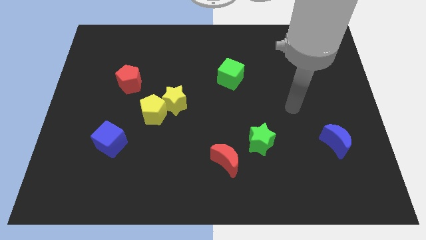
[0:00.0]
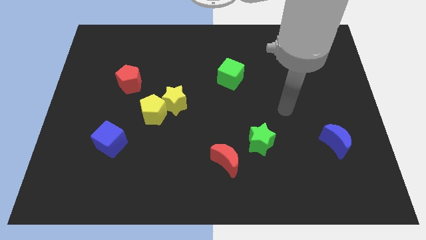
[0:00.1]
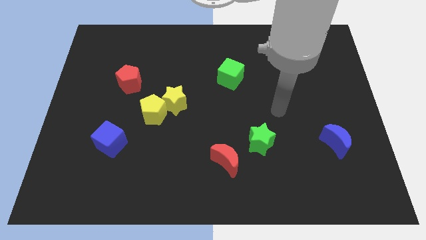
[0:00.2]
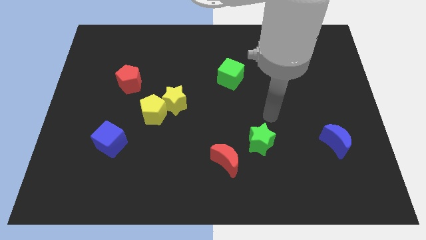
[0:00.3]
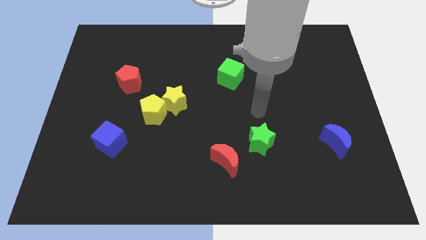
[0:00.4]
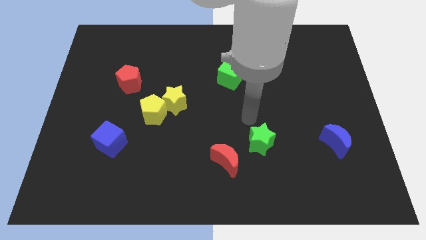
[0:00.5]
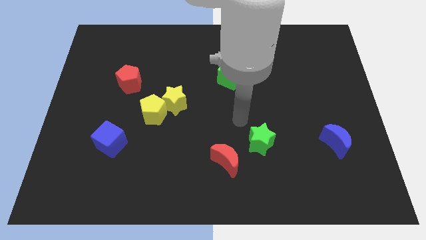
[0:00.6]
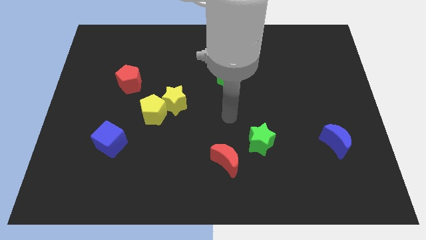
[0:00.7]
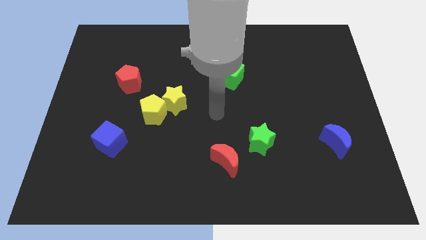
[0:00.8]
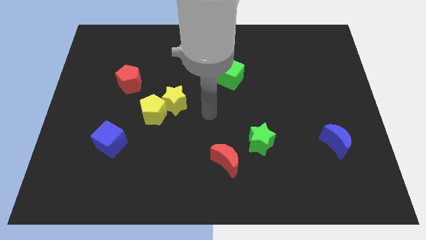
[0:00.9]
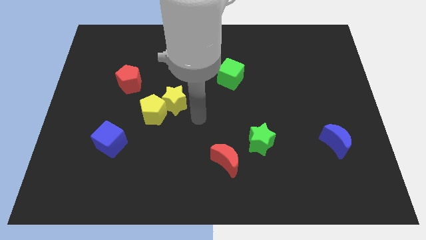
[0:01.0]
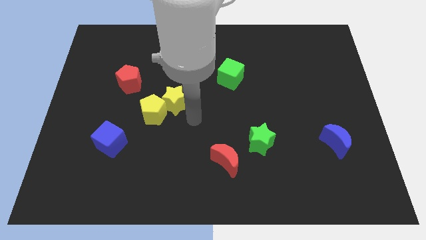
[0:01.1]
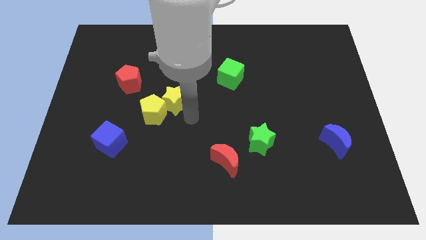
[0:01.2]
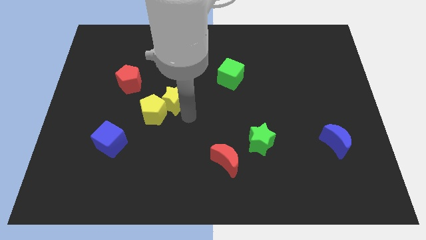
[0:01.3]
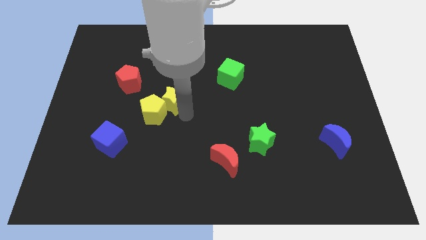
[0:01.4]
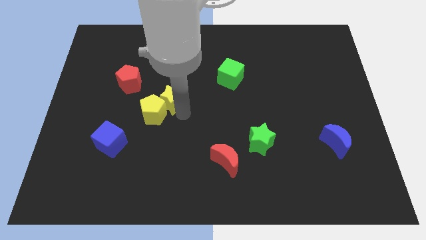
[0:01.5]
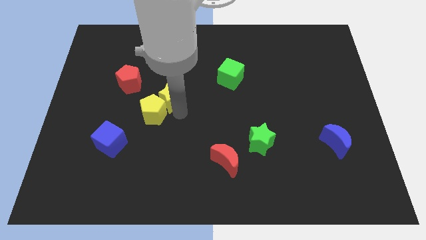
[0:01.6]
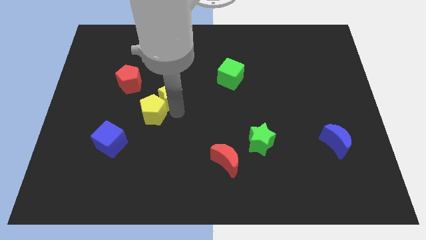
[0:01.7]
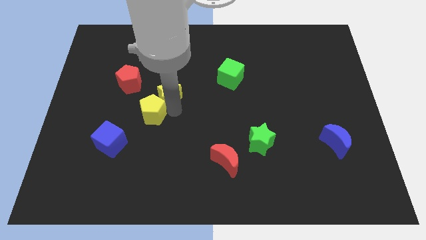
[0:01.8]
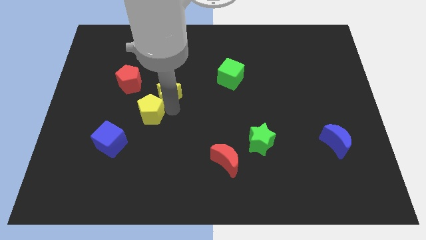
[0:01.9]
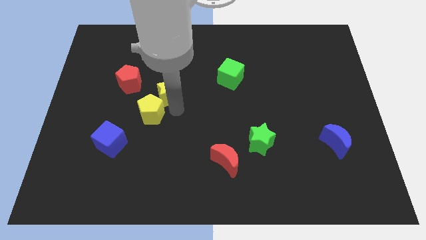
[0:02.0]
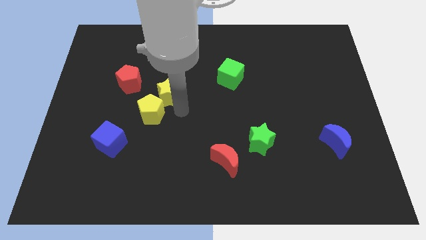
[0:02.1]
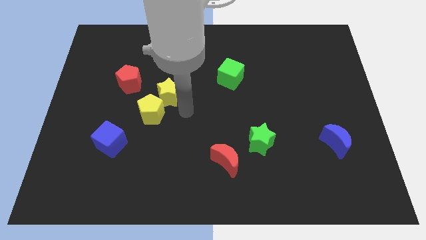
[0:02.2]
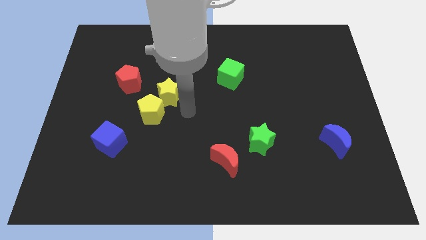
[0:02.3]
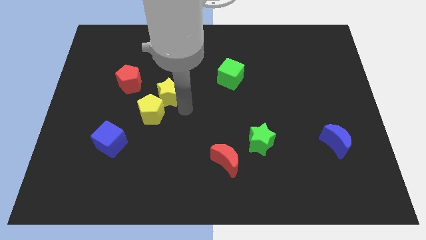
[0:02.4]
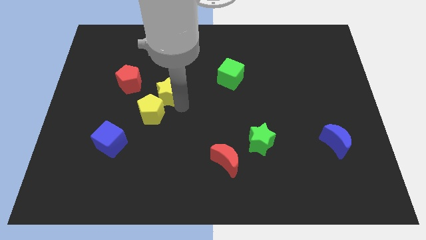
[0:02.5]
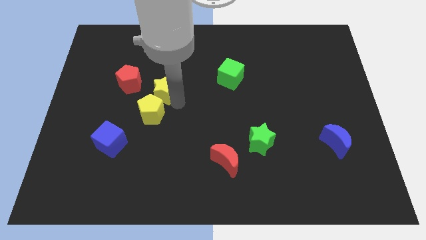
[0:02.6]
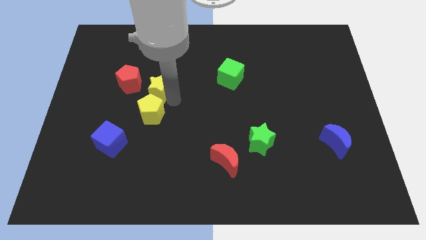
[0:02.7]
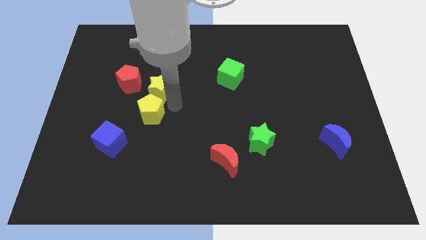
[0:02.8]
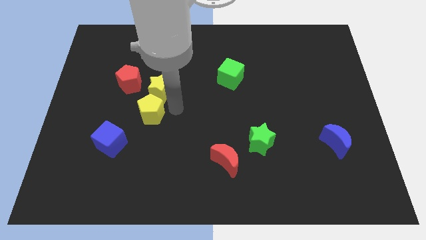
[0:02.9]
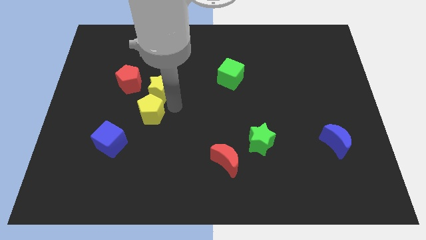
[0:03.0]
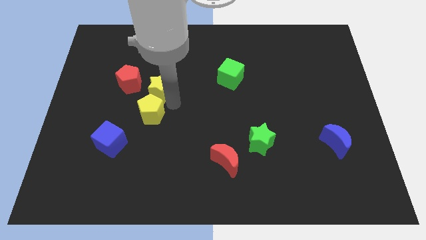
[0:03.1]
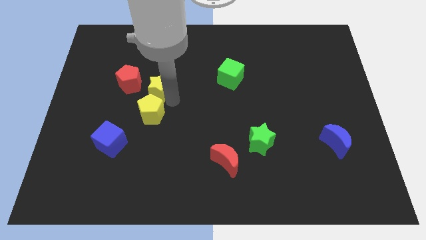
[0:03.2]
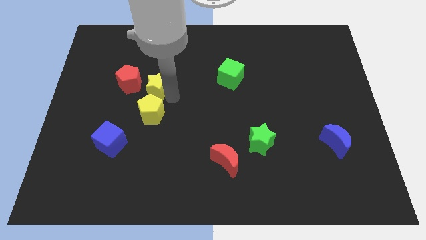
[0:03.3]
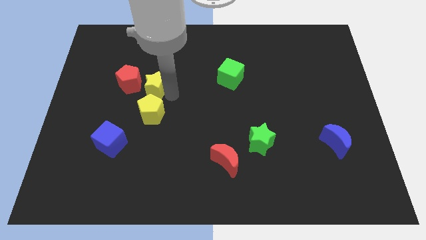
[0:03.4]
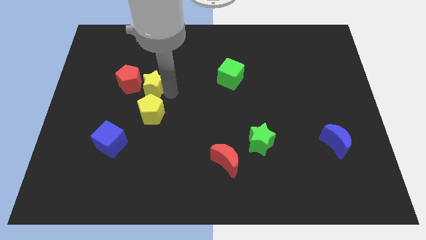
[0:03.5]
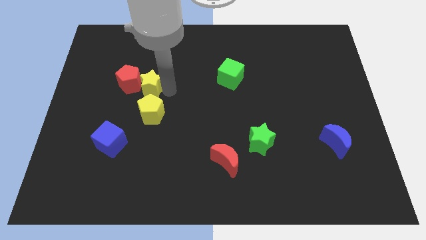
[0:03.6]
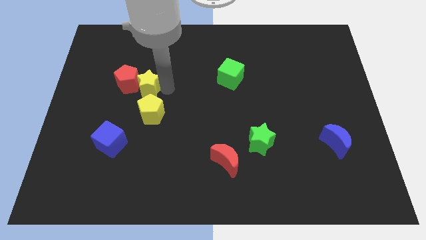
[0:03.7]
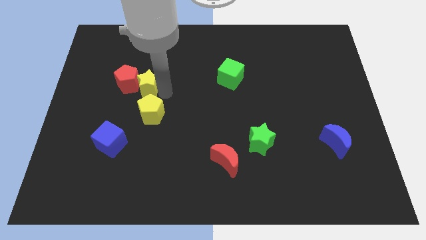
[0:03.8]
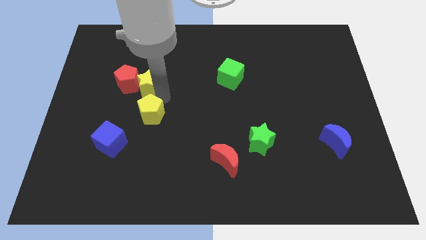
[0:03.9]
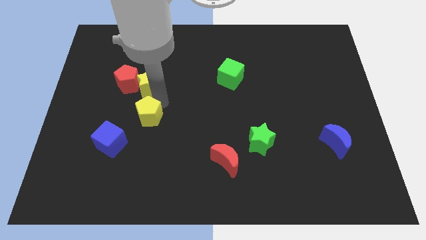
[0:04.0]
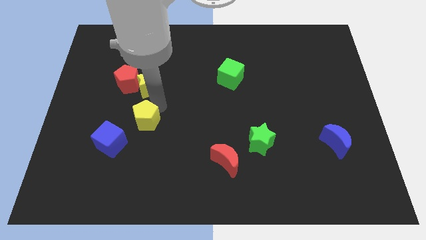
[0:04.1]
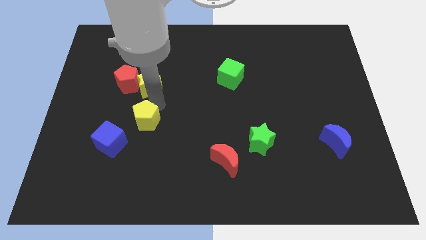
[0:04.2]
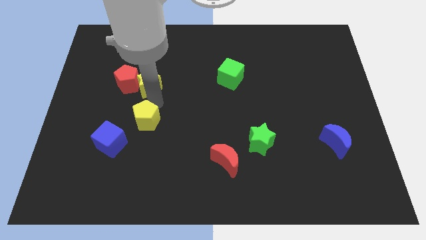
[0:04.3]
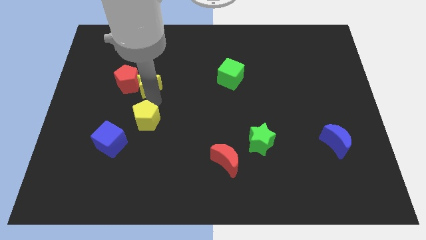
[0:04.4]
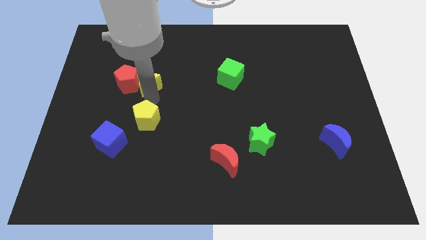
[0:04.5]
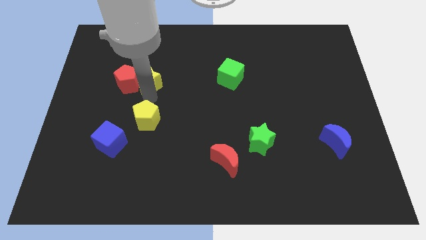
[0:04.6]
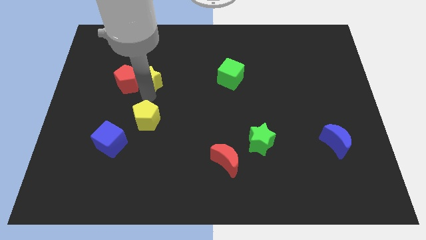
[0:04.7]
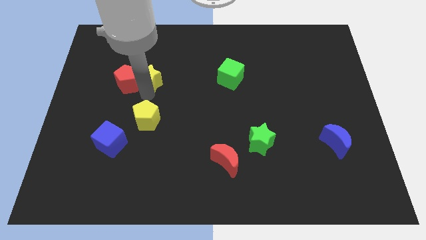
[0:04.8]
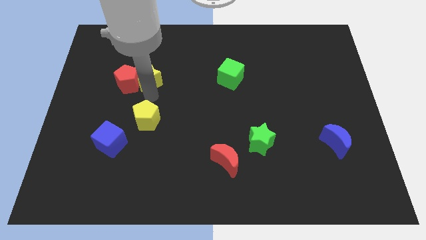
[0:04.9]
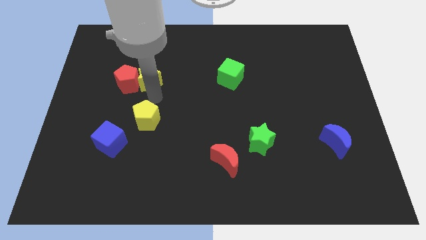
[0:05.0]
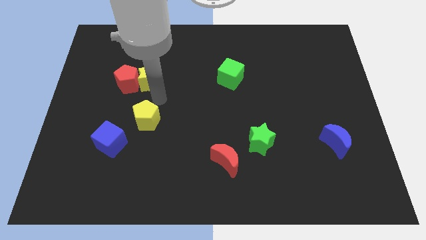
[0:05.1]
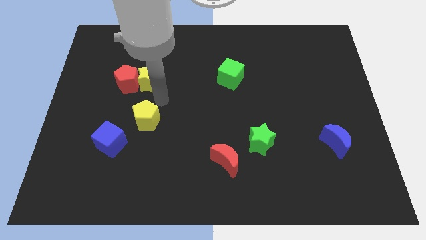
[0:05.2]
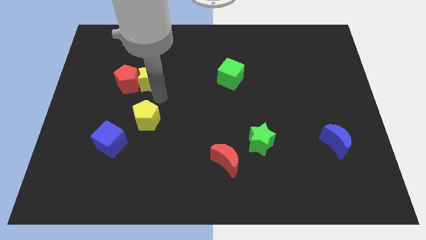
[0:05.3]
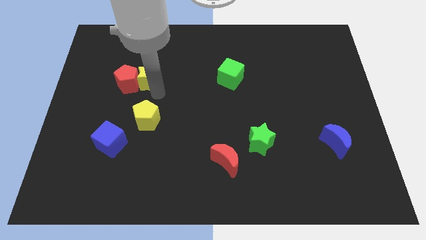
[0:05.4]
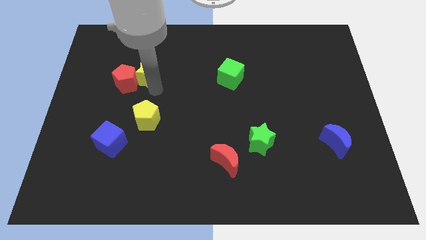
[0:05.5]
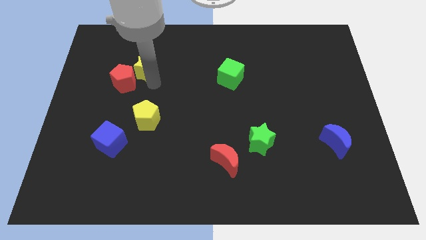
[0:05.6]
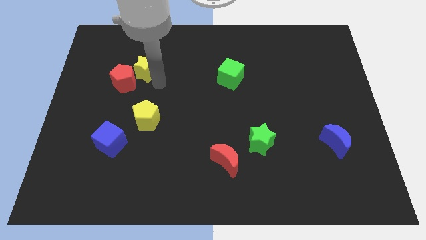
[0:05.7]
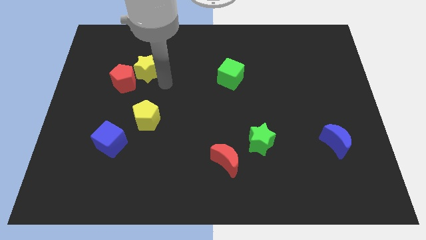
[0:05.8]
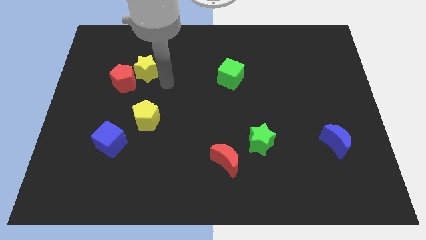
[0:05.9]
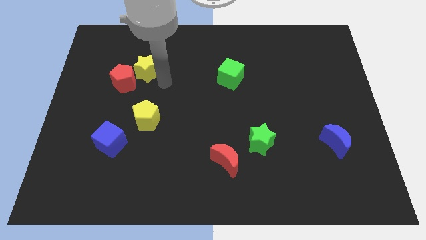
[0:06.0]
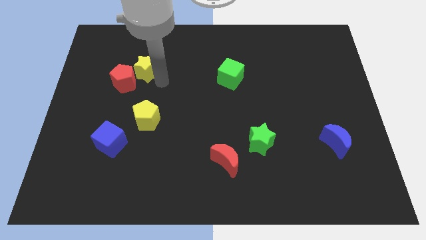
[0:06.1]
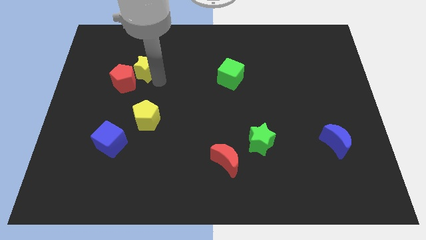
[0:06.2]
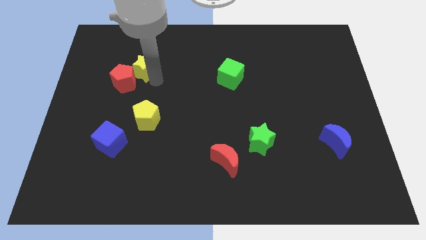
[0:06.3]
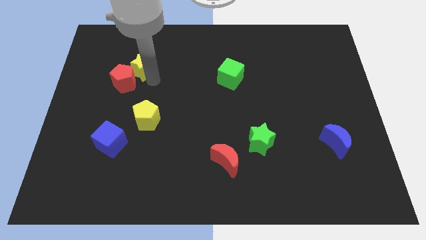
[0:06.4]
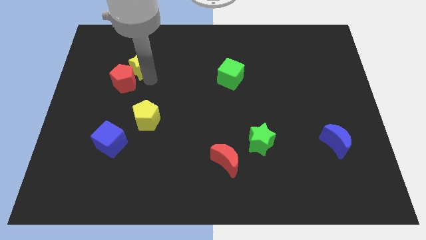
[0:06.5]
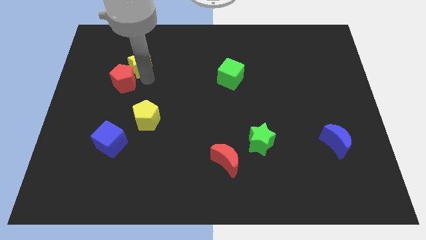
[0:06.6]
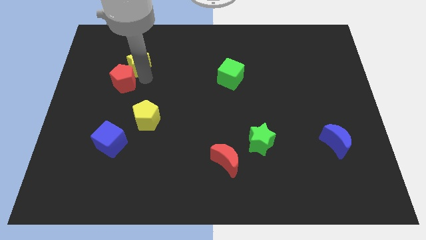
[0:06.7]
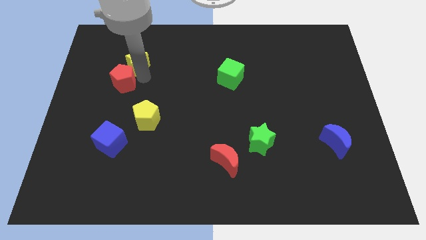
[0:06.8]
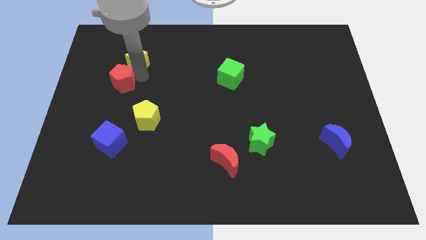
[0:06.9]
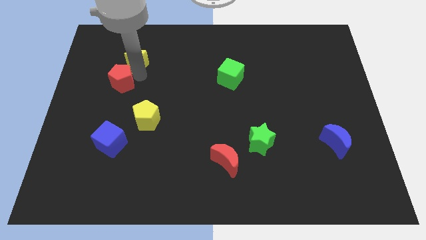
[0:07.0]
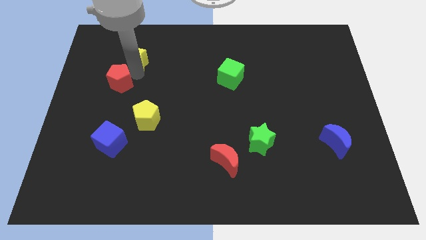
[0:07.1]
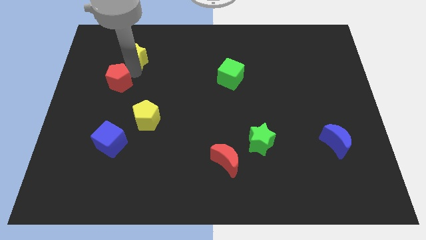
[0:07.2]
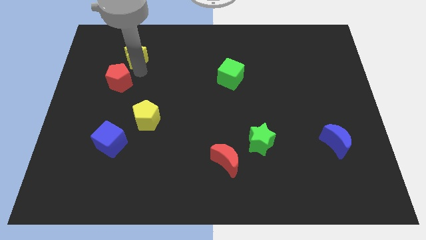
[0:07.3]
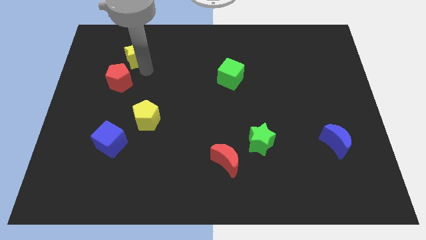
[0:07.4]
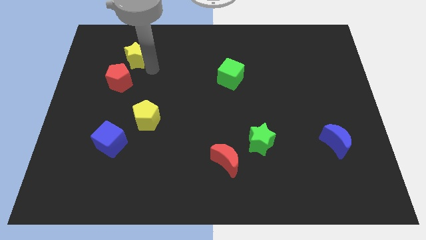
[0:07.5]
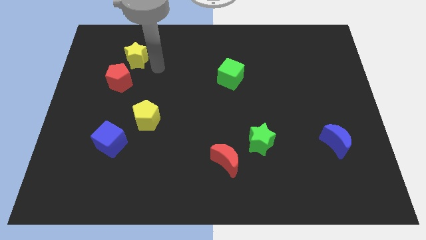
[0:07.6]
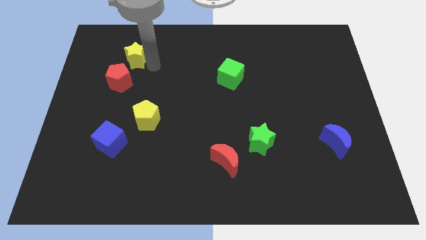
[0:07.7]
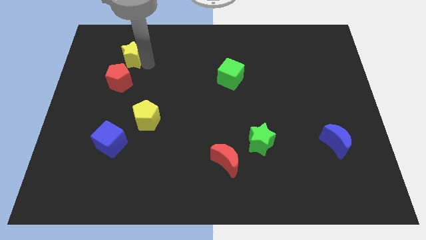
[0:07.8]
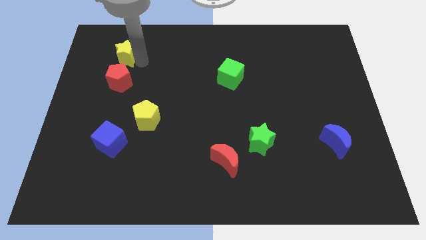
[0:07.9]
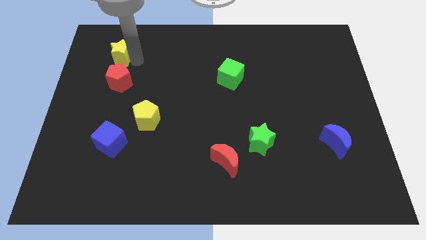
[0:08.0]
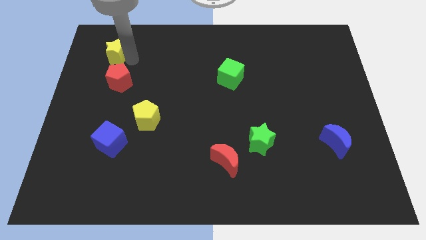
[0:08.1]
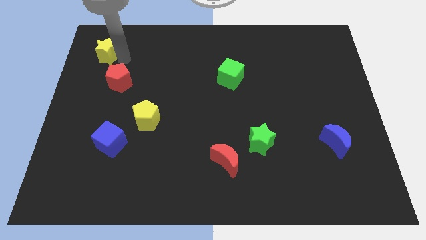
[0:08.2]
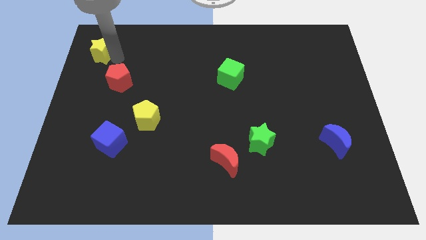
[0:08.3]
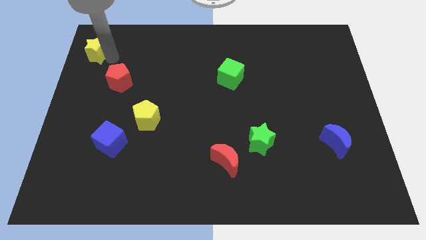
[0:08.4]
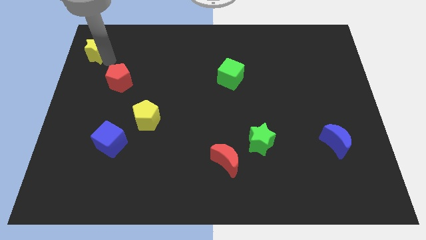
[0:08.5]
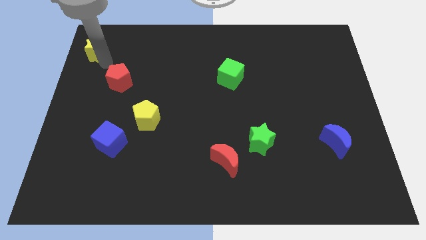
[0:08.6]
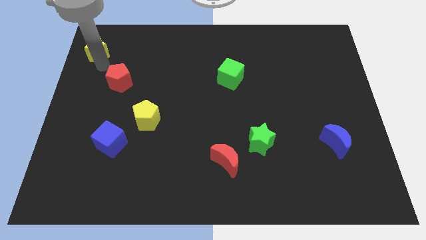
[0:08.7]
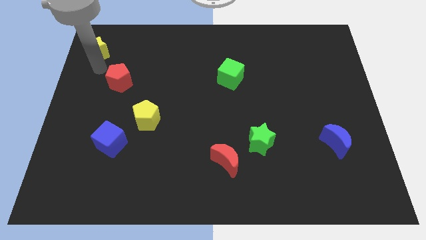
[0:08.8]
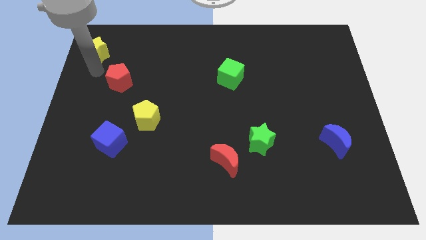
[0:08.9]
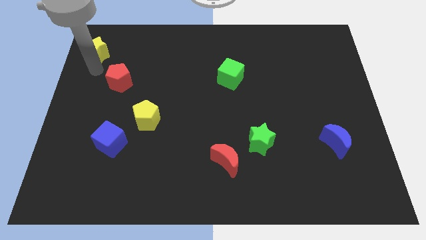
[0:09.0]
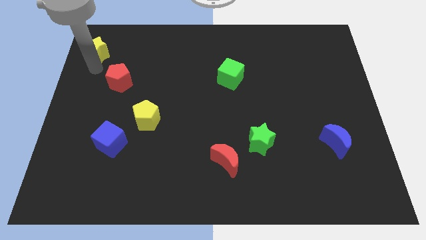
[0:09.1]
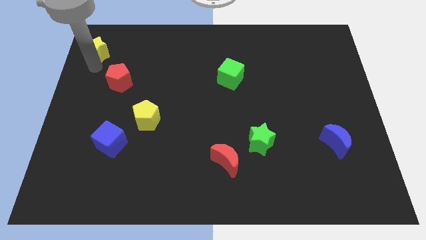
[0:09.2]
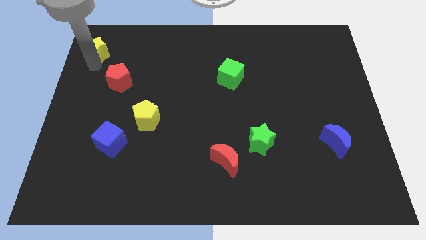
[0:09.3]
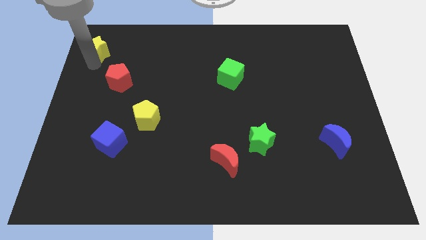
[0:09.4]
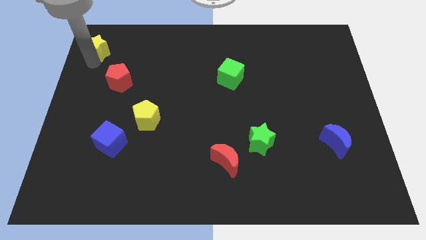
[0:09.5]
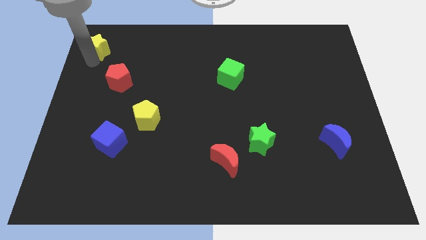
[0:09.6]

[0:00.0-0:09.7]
slide the yellow star to the top left of the board
